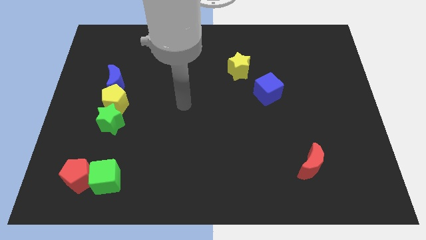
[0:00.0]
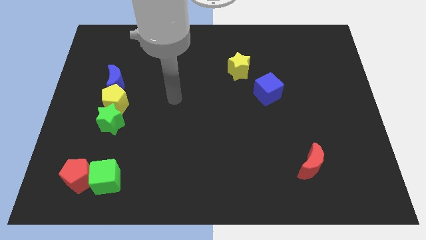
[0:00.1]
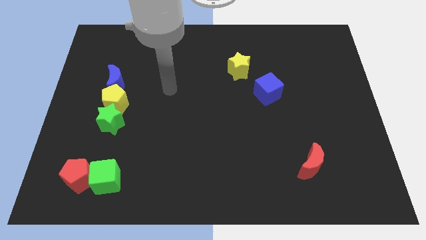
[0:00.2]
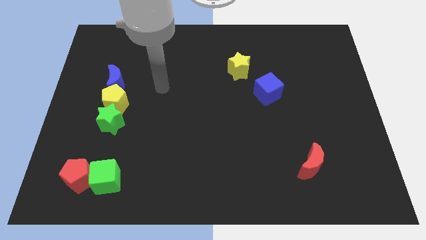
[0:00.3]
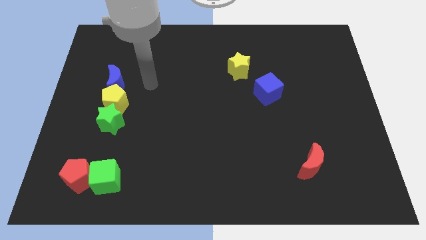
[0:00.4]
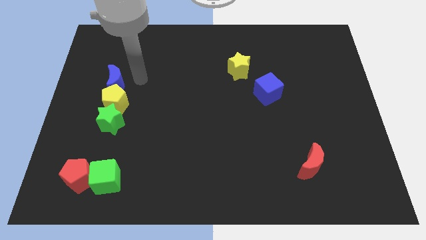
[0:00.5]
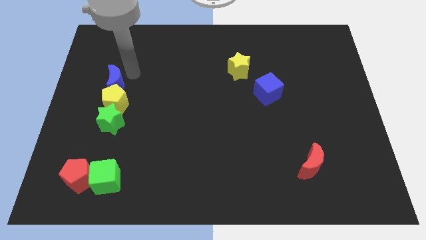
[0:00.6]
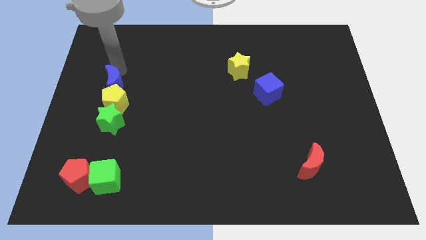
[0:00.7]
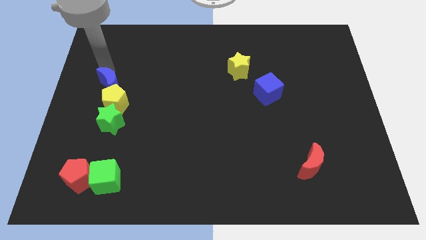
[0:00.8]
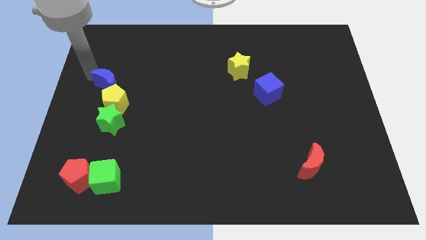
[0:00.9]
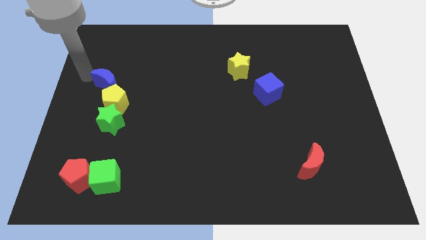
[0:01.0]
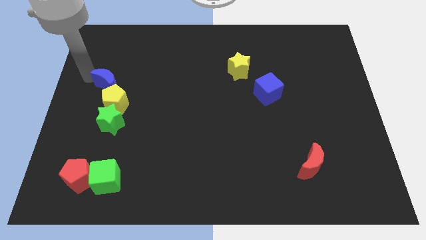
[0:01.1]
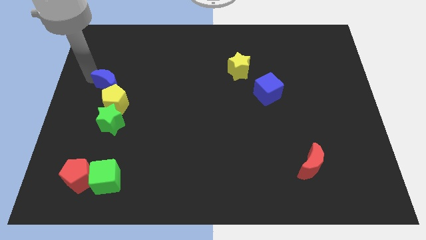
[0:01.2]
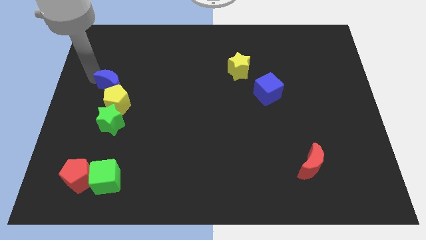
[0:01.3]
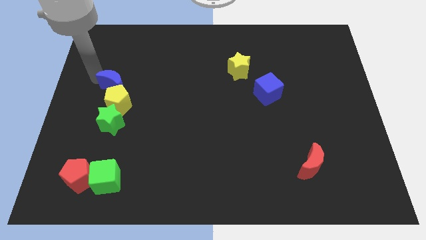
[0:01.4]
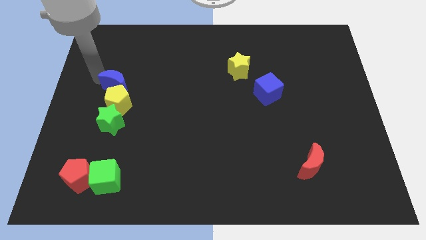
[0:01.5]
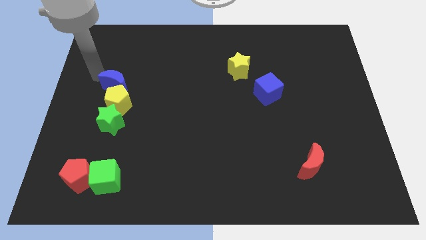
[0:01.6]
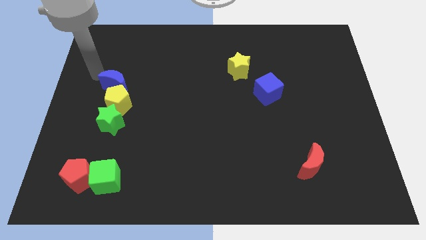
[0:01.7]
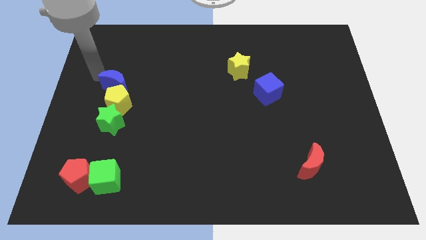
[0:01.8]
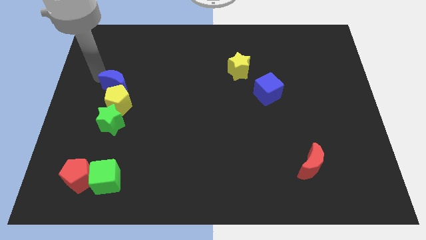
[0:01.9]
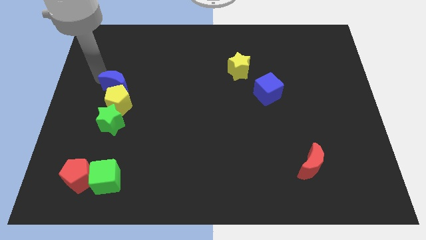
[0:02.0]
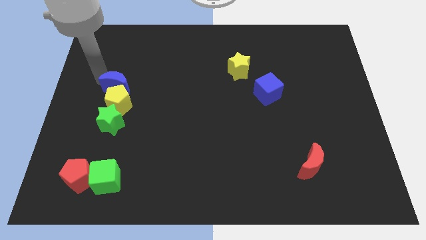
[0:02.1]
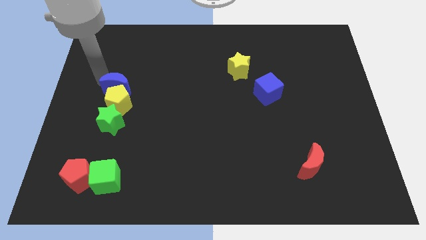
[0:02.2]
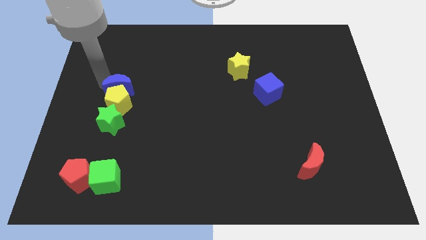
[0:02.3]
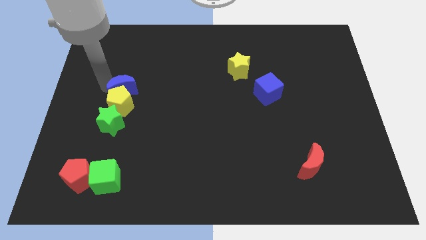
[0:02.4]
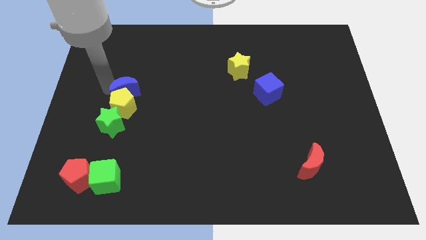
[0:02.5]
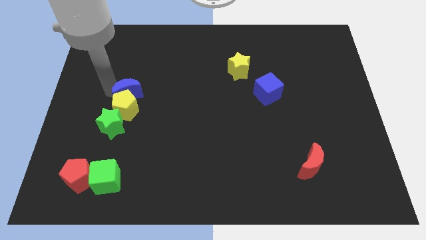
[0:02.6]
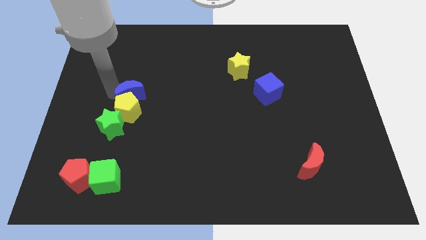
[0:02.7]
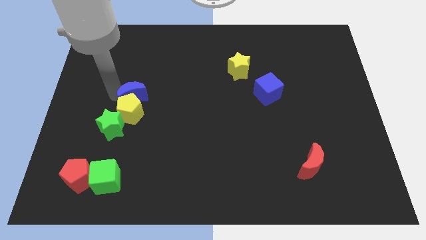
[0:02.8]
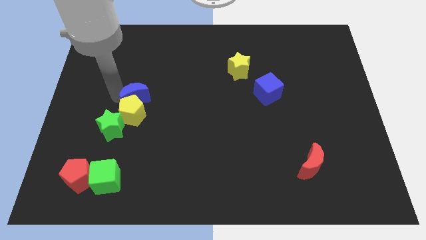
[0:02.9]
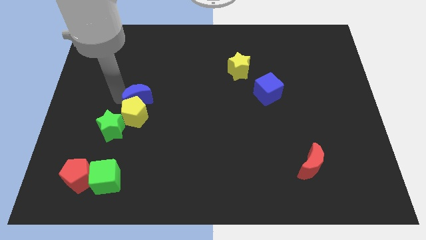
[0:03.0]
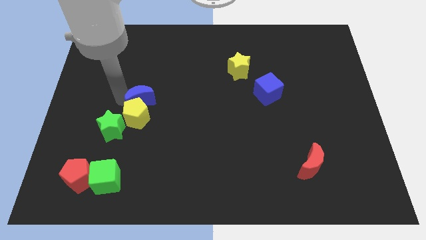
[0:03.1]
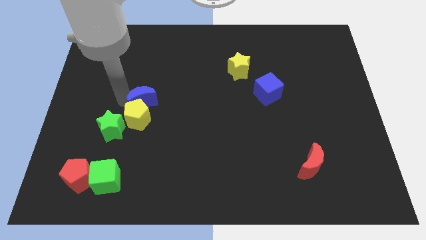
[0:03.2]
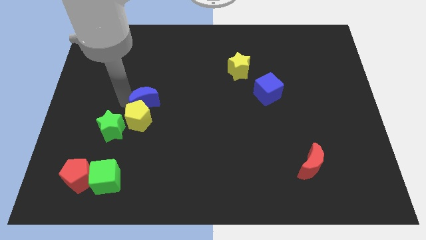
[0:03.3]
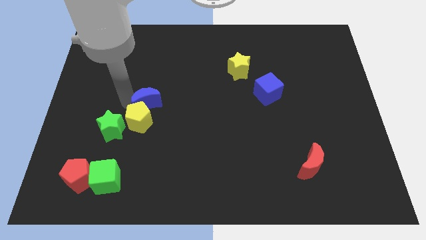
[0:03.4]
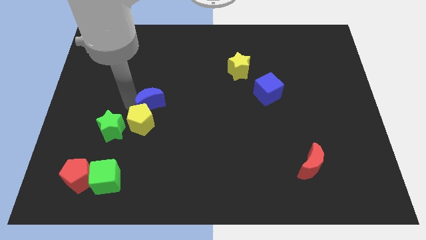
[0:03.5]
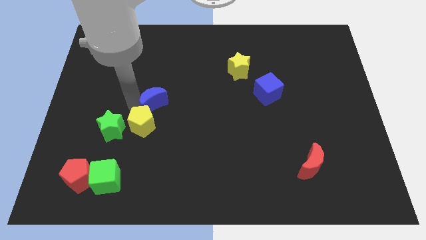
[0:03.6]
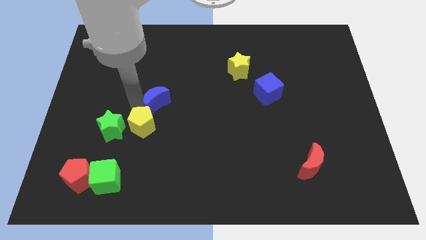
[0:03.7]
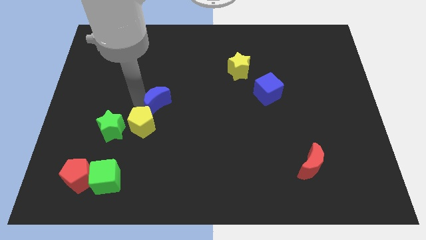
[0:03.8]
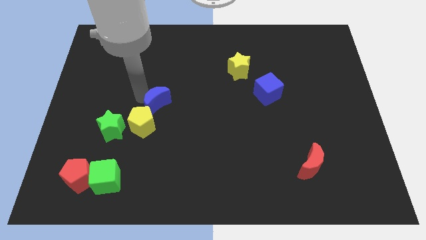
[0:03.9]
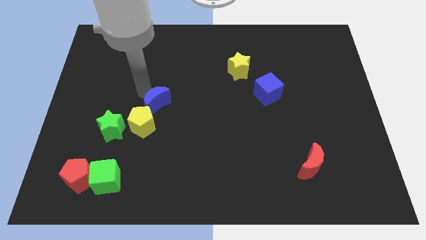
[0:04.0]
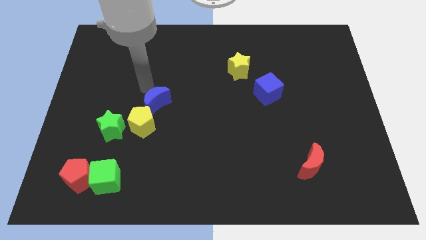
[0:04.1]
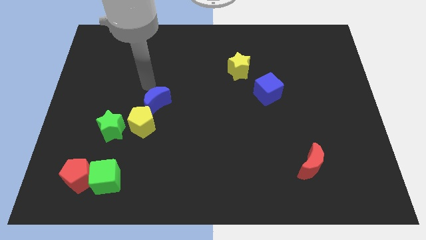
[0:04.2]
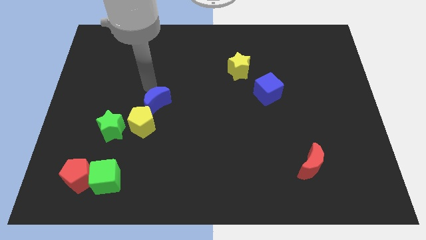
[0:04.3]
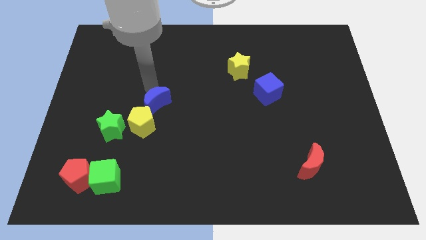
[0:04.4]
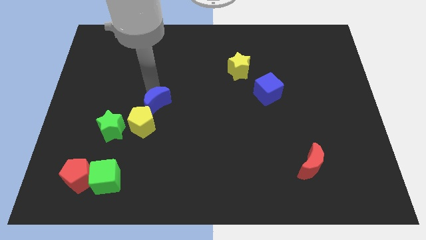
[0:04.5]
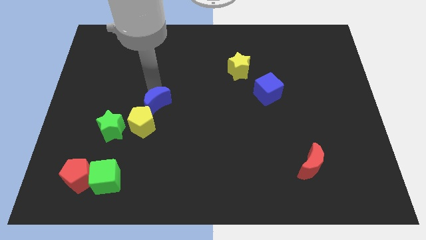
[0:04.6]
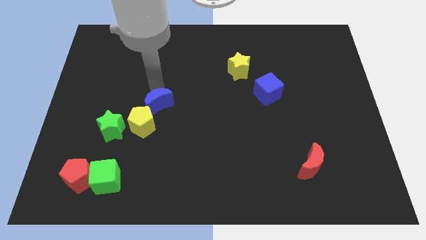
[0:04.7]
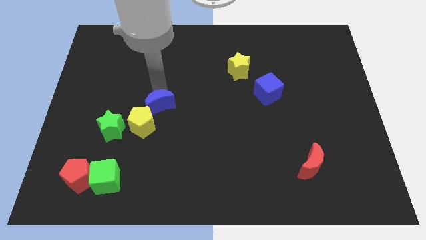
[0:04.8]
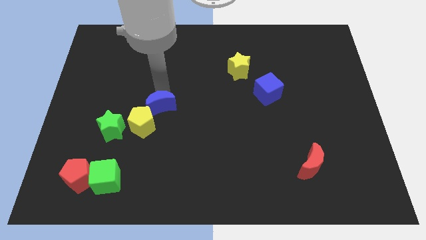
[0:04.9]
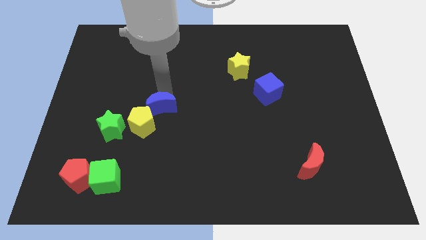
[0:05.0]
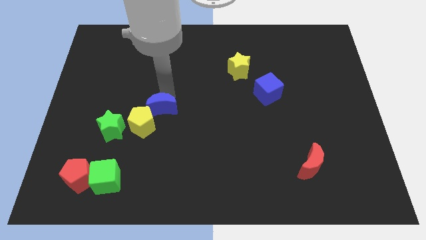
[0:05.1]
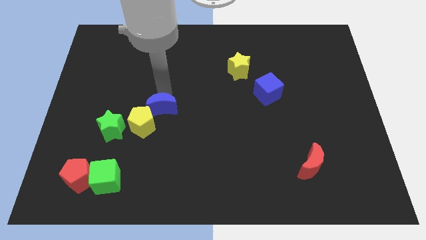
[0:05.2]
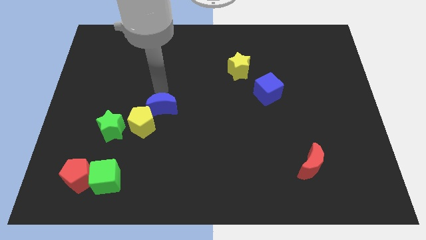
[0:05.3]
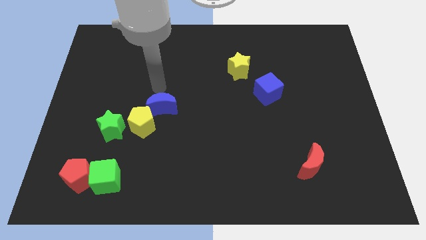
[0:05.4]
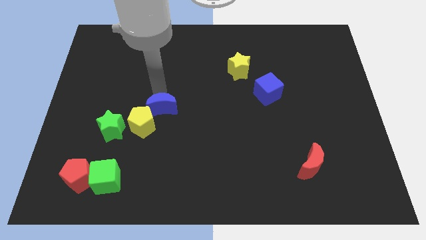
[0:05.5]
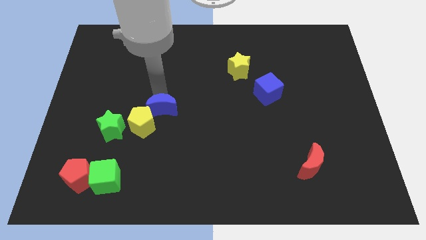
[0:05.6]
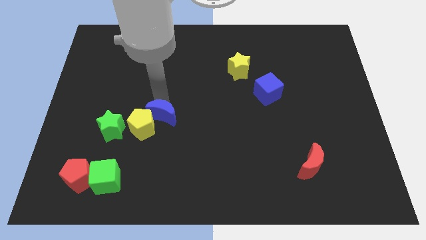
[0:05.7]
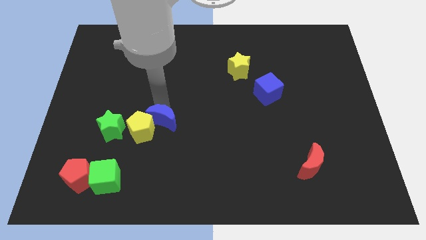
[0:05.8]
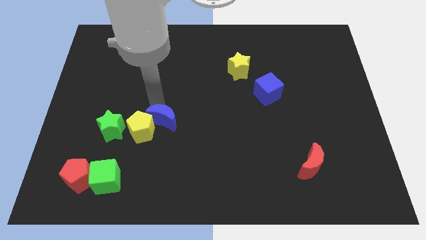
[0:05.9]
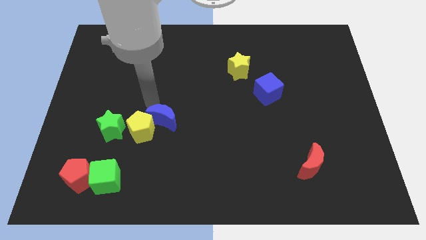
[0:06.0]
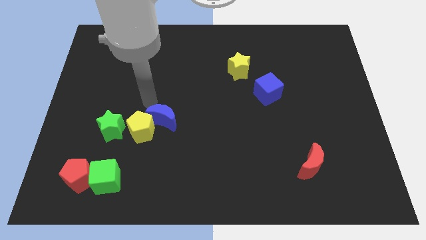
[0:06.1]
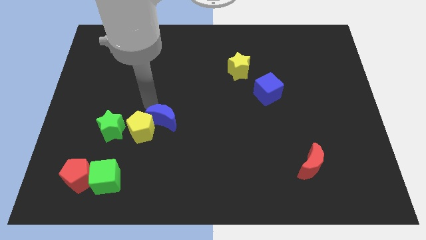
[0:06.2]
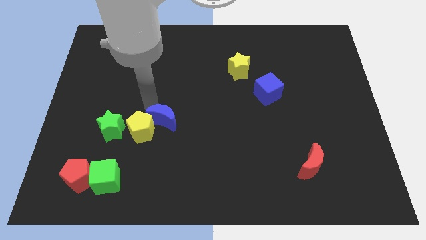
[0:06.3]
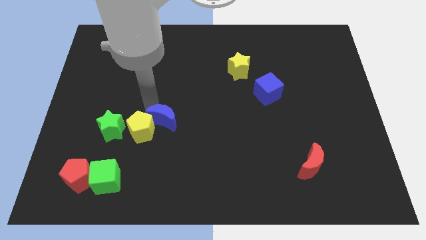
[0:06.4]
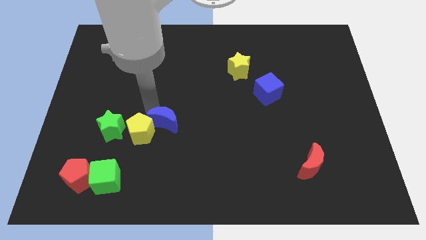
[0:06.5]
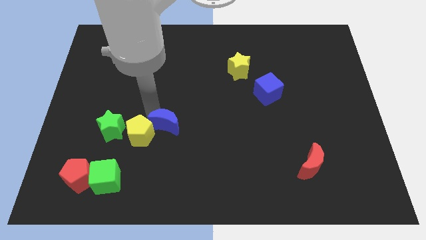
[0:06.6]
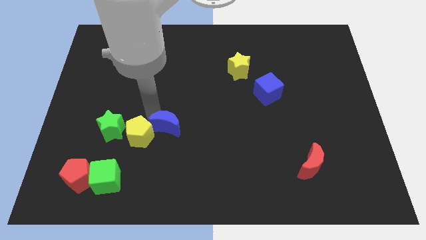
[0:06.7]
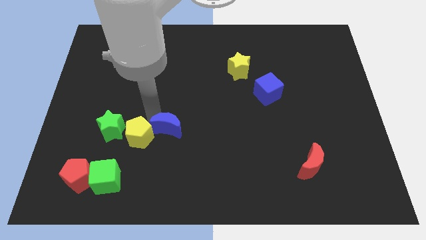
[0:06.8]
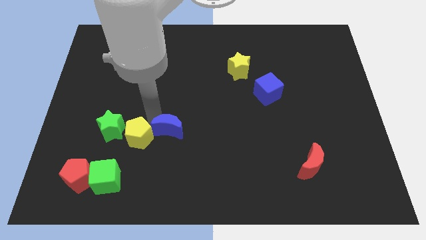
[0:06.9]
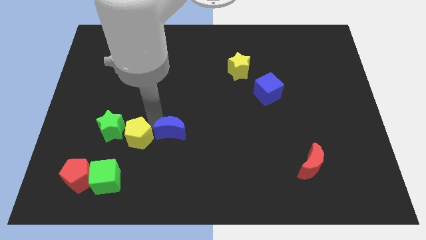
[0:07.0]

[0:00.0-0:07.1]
push the blue moon down and right diagonally

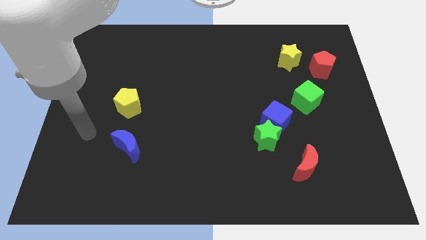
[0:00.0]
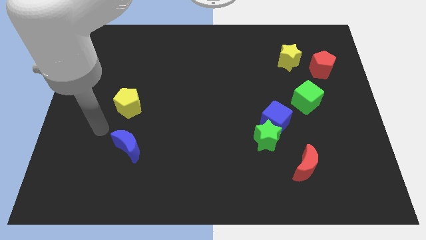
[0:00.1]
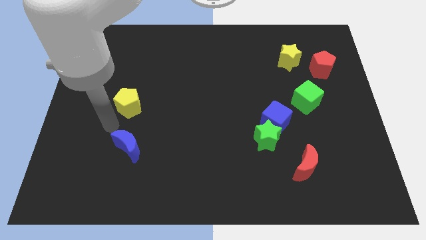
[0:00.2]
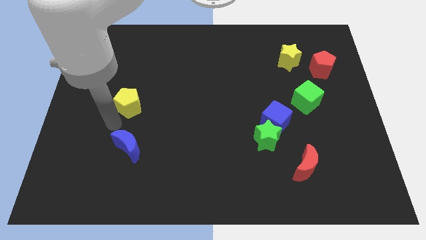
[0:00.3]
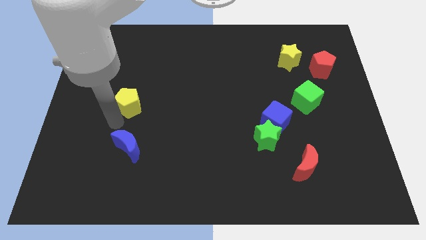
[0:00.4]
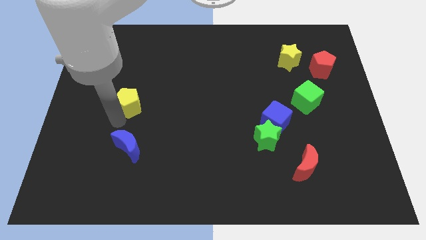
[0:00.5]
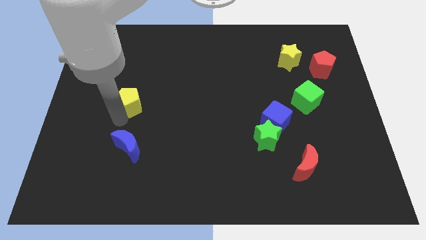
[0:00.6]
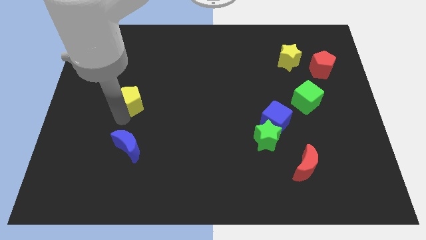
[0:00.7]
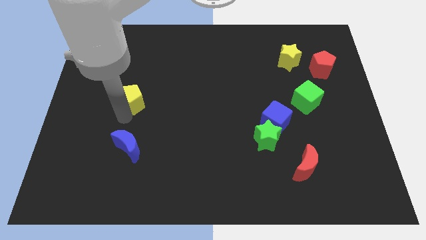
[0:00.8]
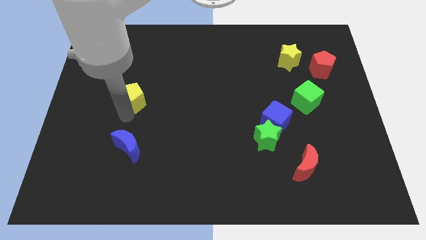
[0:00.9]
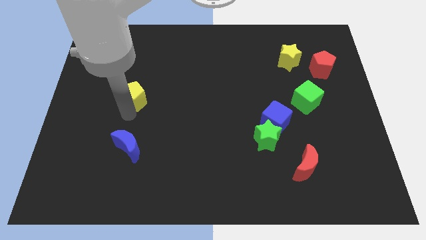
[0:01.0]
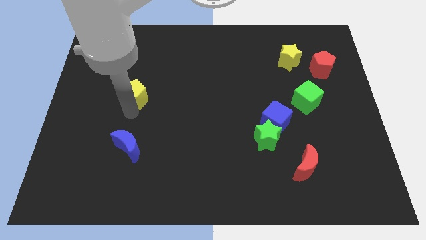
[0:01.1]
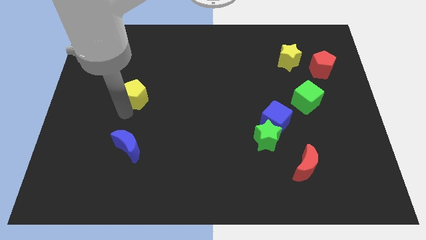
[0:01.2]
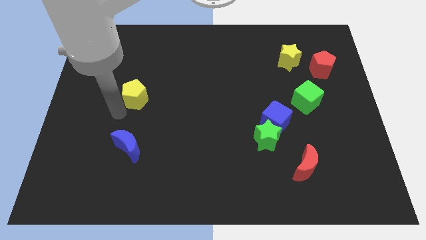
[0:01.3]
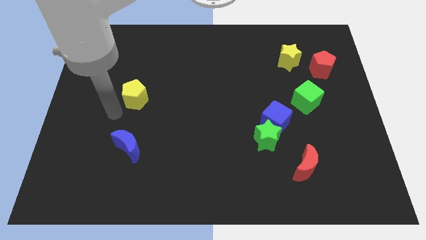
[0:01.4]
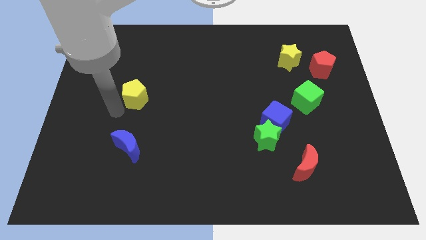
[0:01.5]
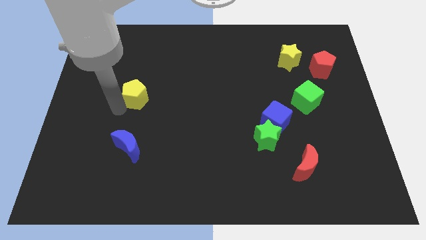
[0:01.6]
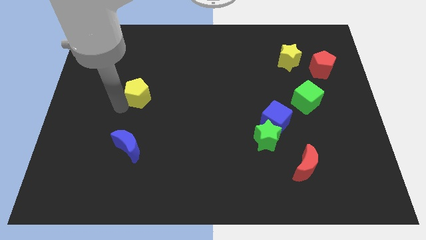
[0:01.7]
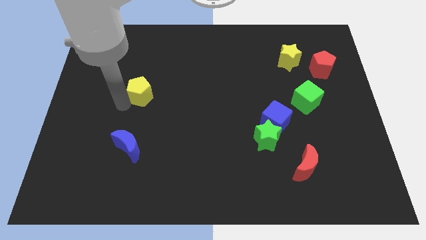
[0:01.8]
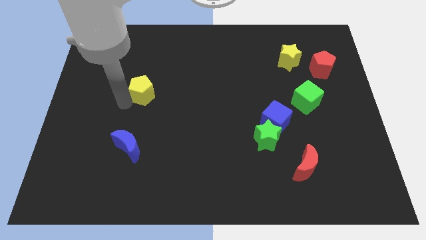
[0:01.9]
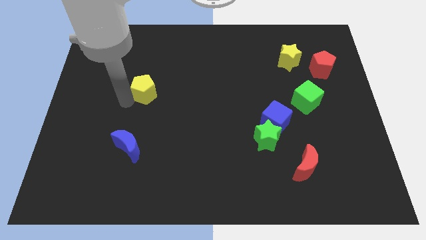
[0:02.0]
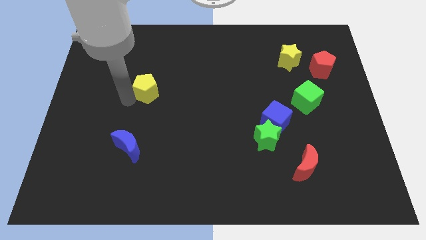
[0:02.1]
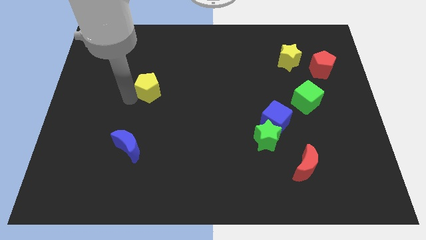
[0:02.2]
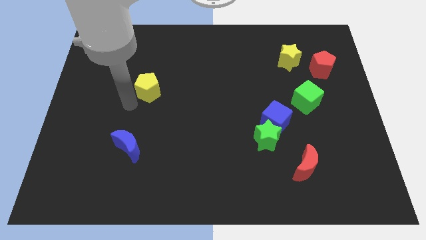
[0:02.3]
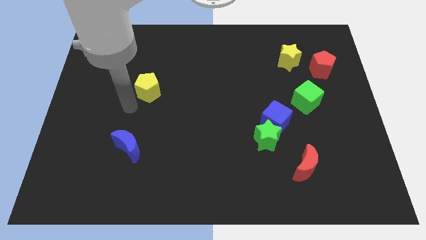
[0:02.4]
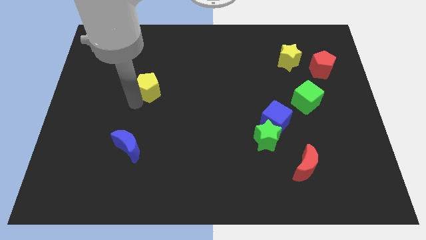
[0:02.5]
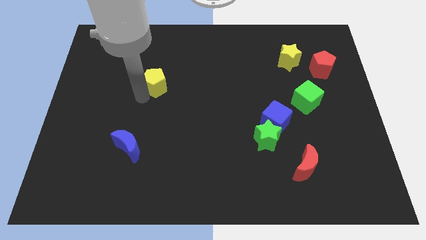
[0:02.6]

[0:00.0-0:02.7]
push the yellow pentagon upwards and right diagonally somewhat
